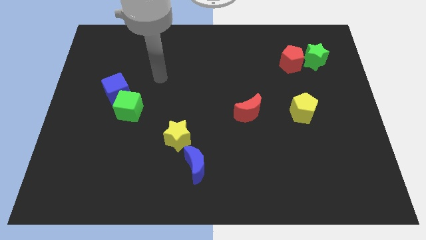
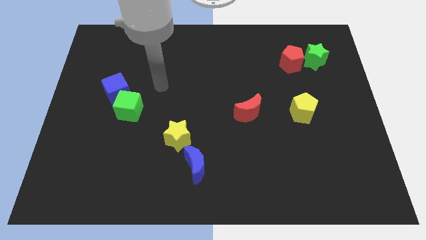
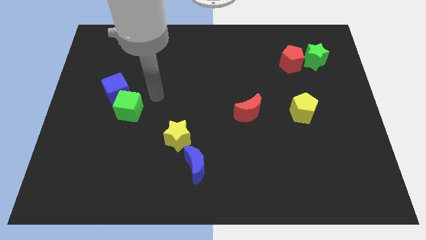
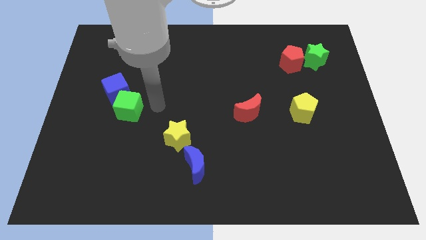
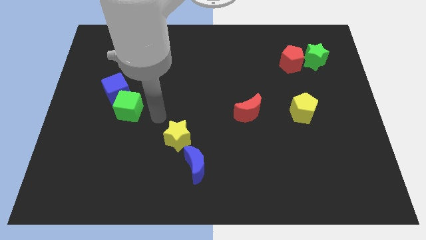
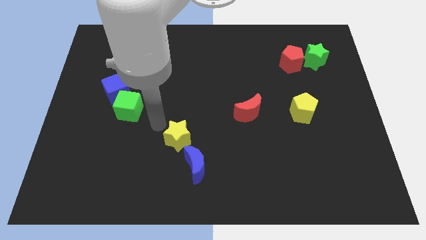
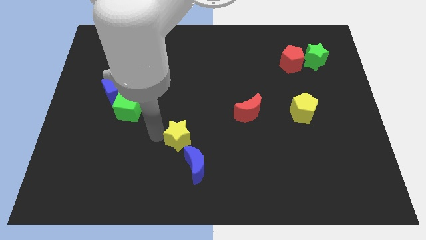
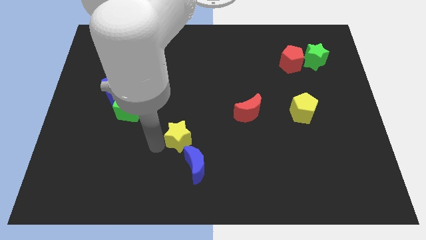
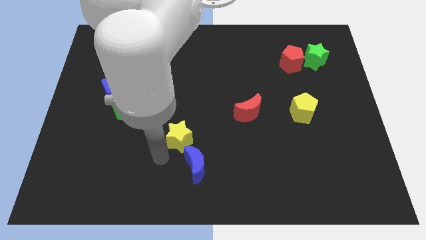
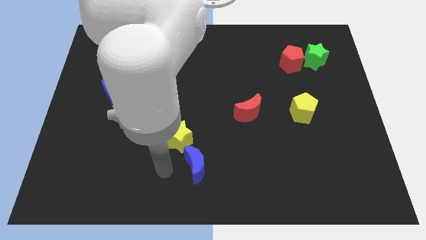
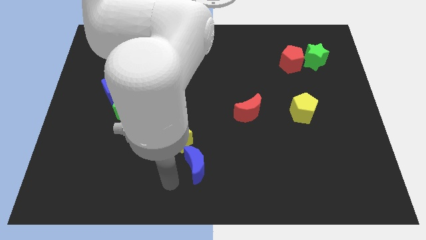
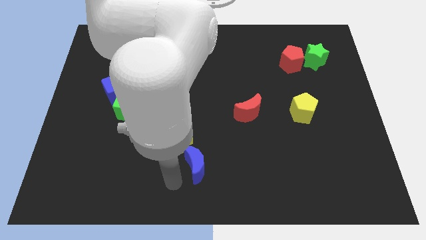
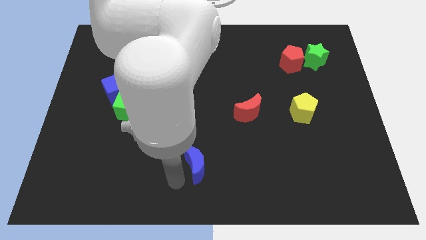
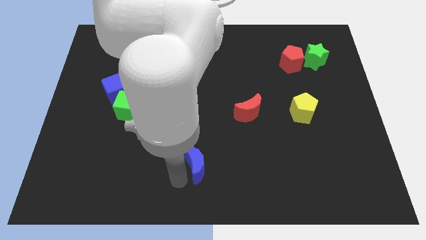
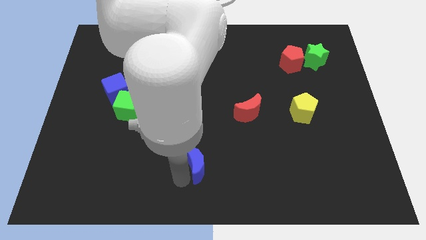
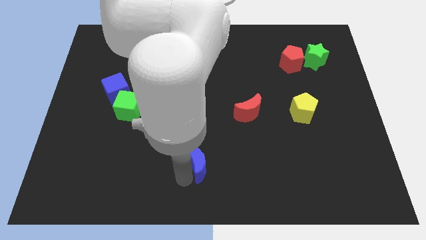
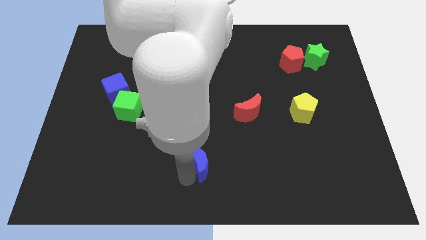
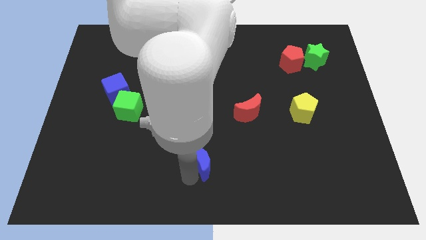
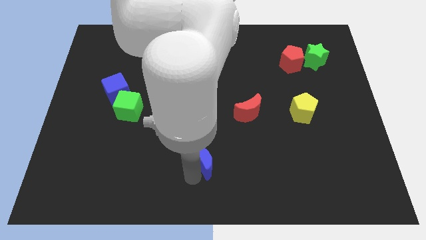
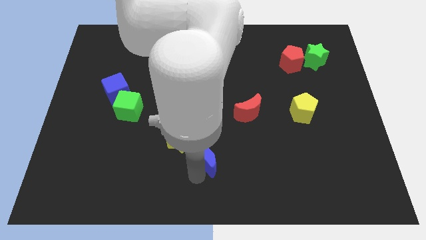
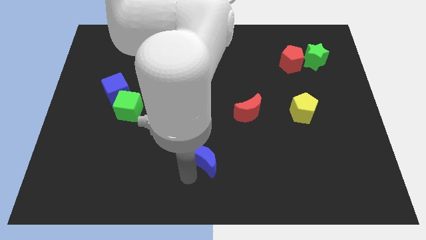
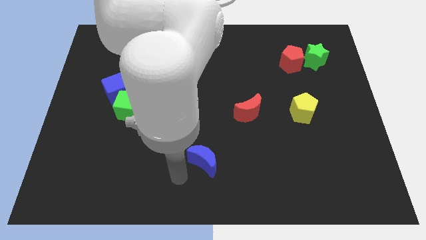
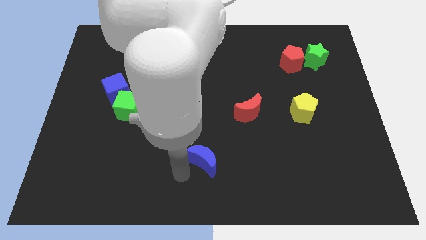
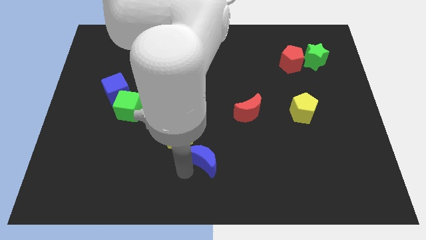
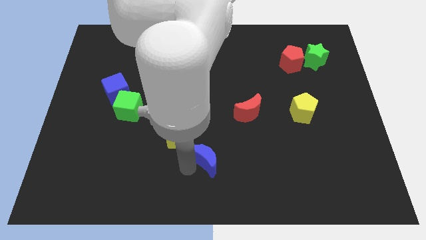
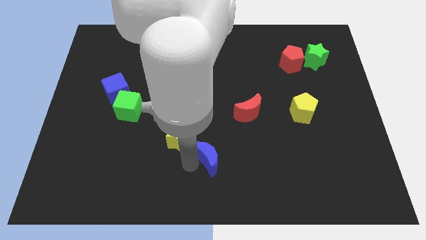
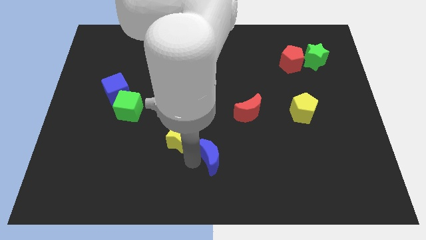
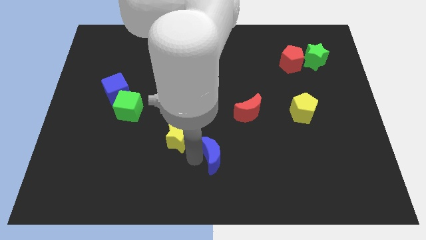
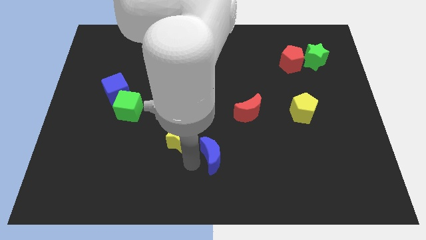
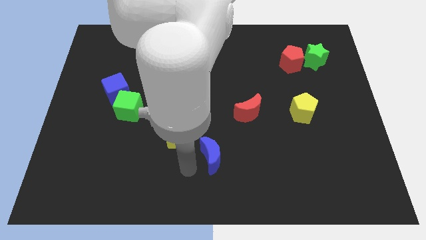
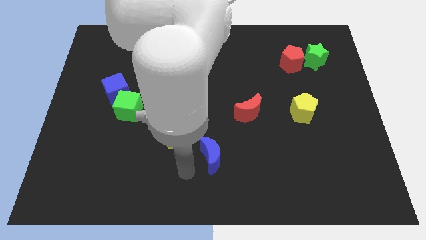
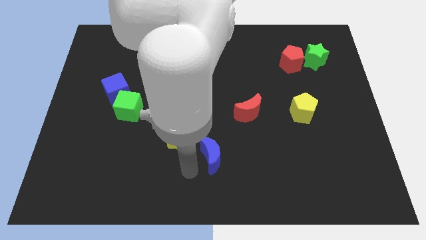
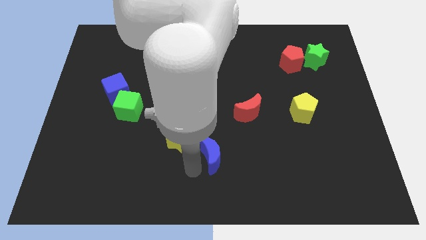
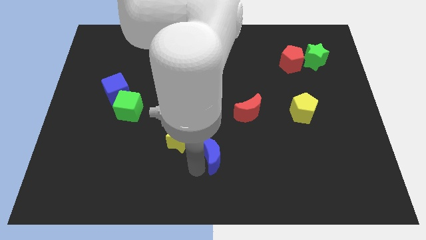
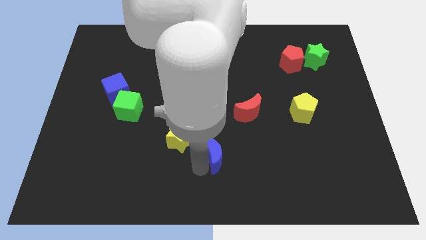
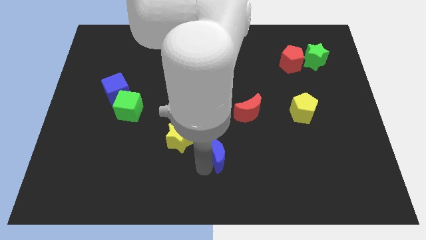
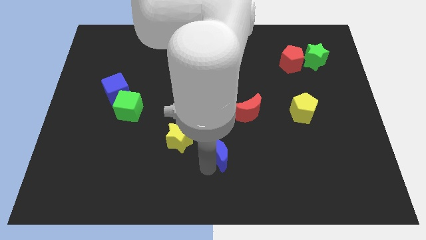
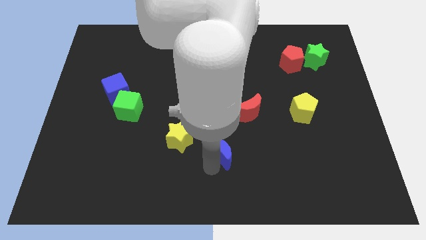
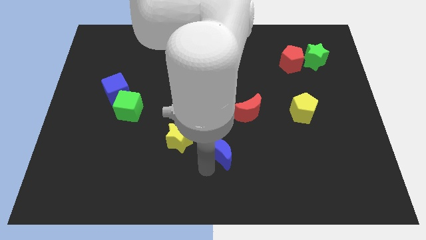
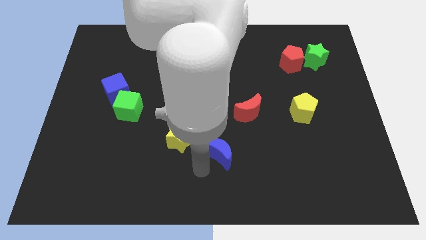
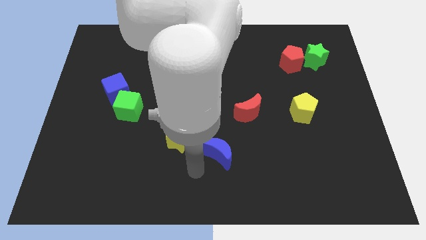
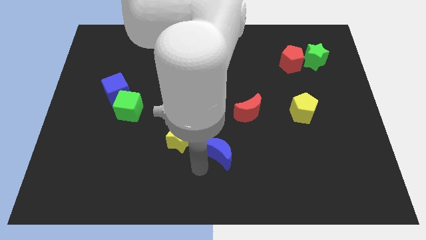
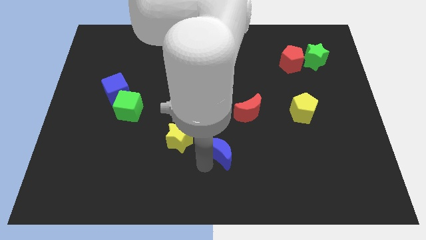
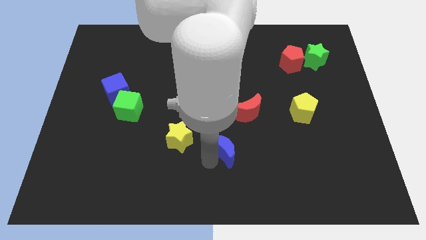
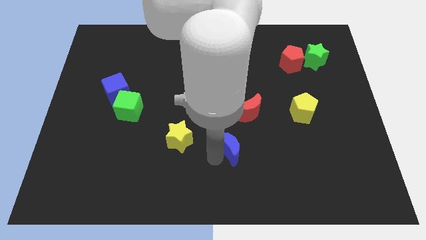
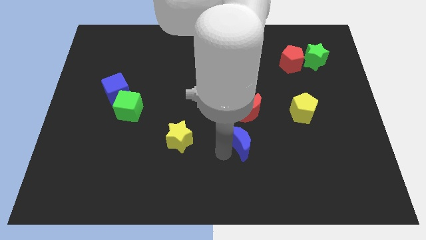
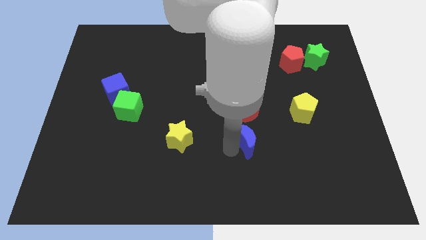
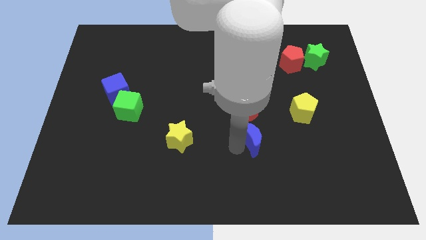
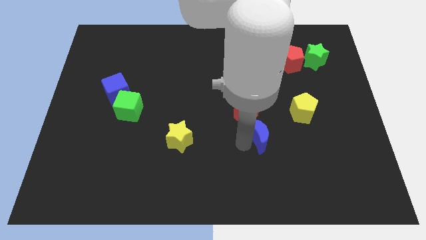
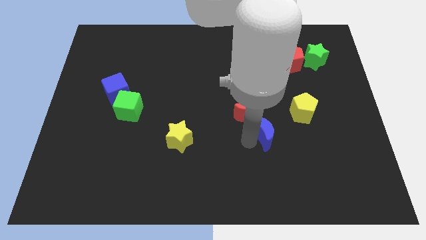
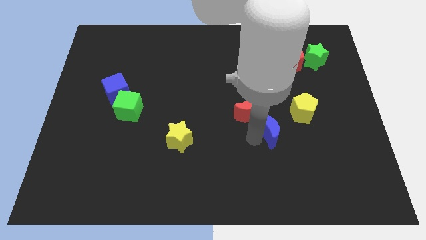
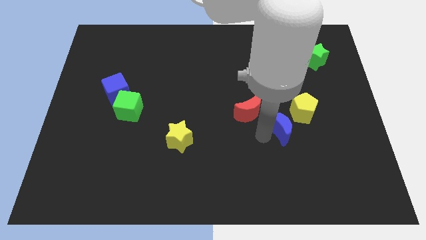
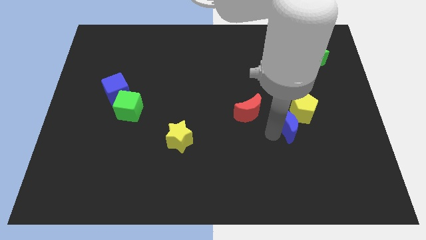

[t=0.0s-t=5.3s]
slide the blue moon to the yellow pentagon

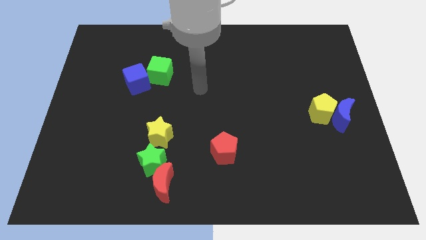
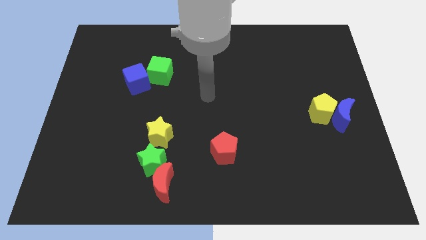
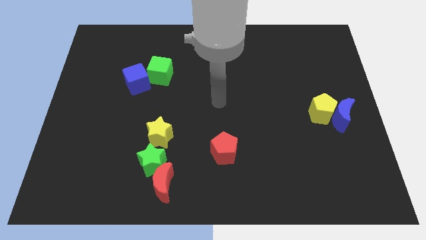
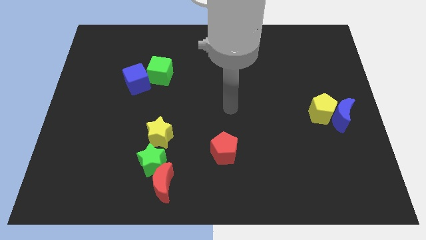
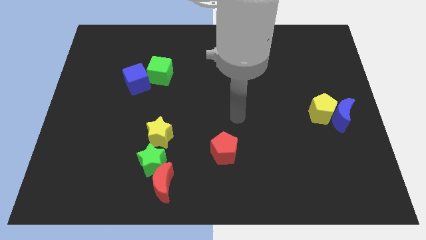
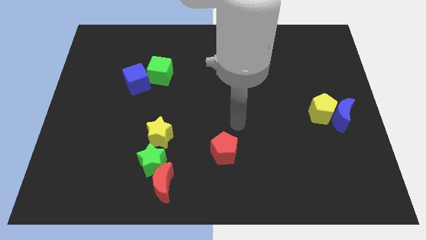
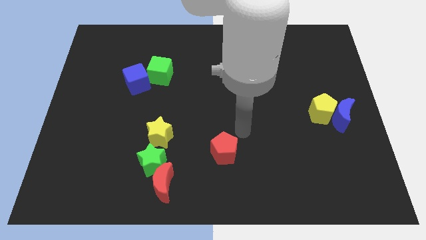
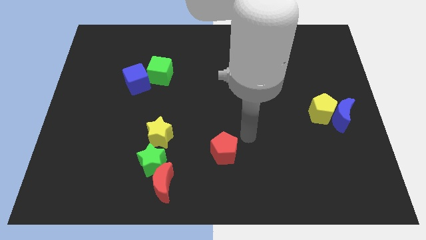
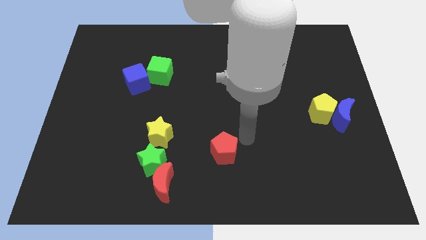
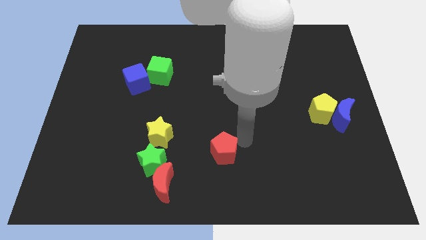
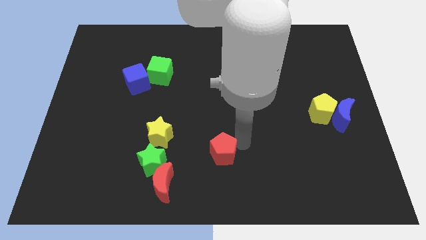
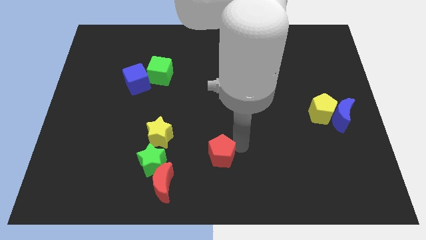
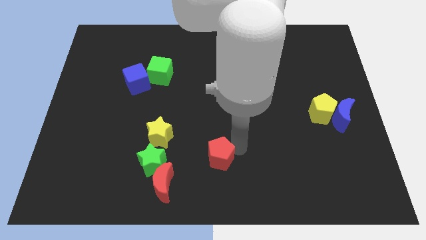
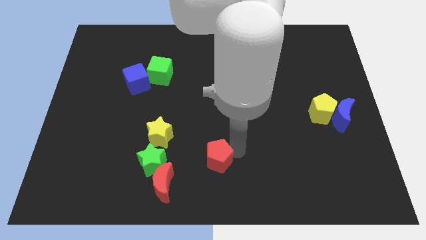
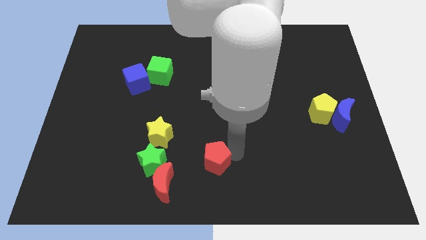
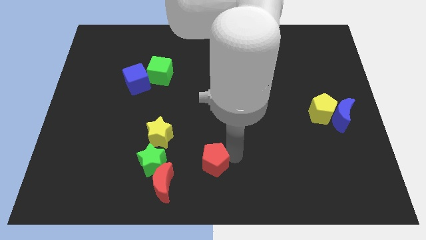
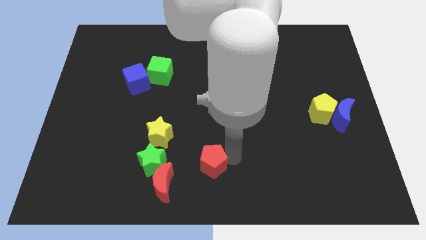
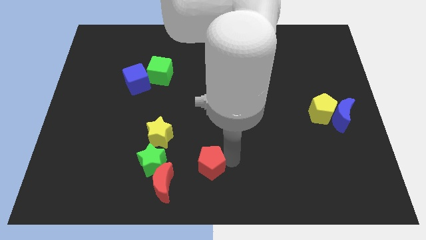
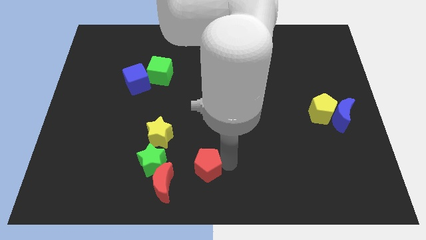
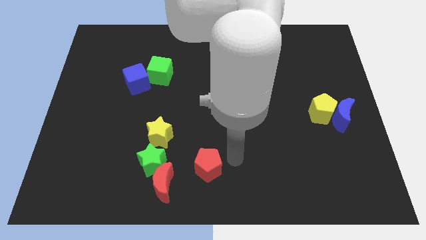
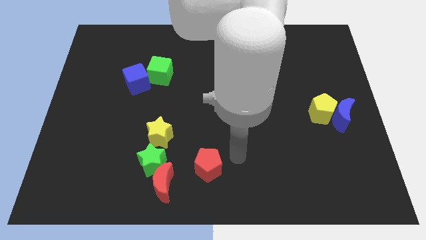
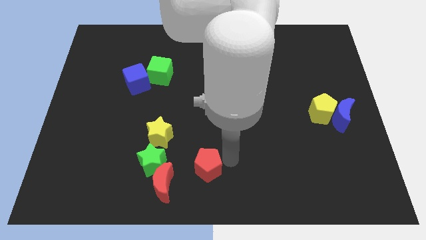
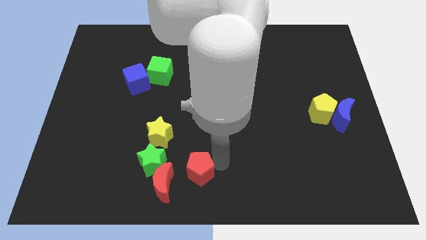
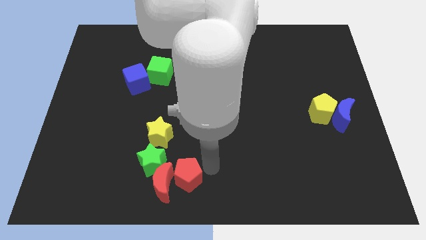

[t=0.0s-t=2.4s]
put the red pentagon close to the red moon
